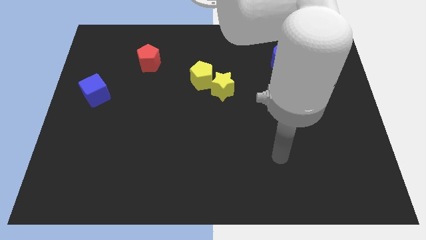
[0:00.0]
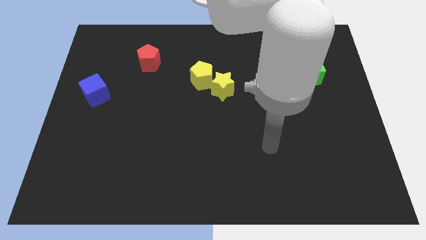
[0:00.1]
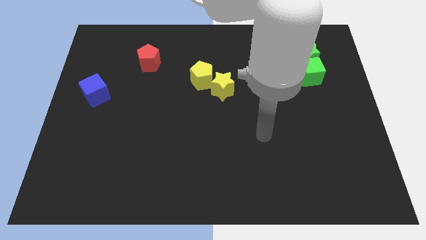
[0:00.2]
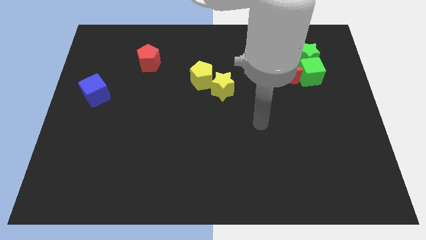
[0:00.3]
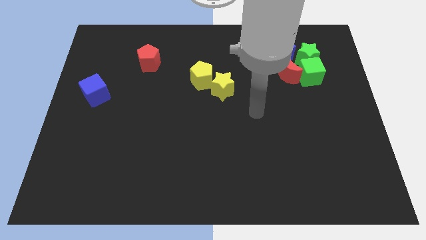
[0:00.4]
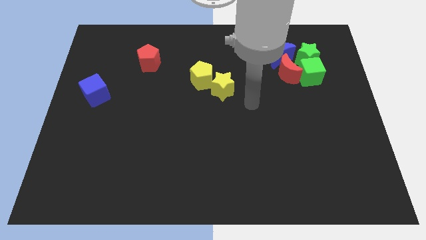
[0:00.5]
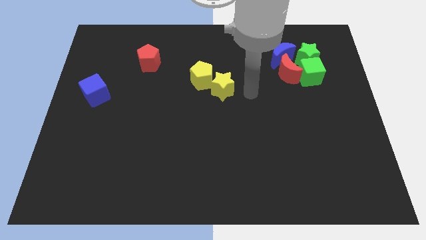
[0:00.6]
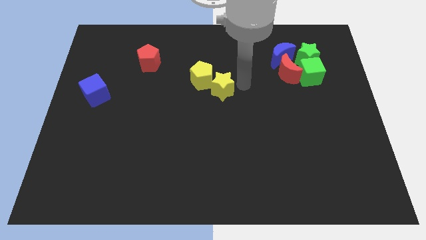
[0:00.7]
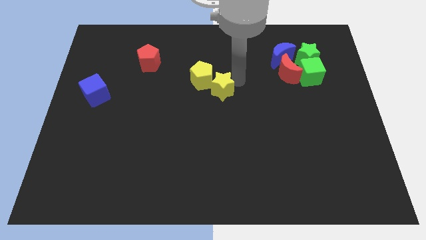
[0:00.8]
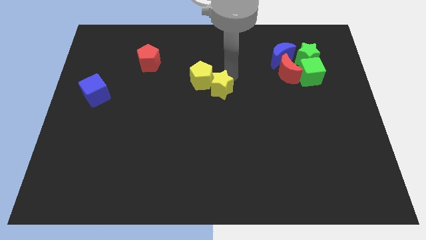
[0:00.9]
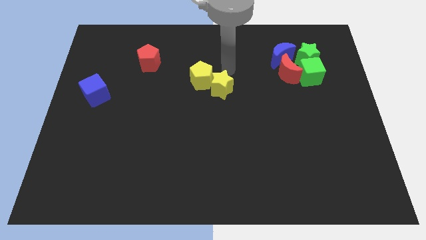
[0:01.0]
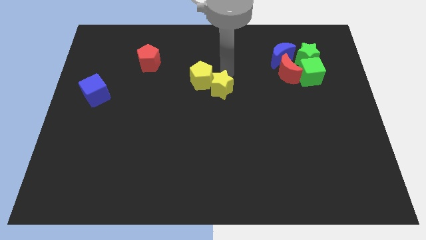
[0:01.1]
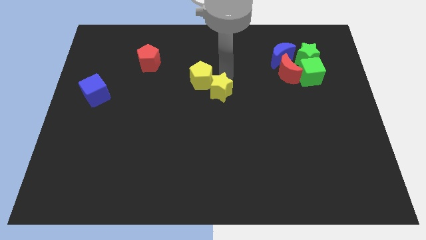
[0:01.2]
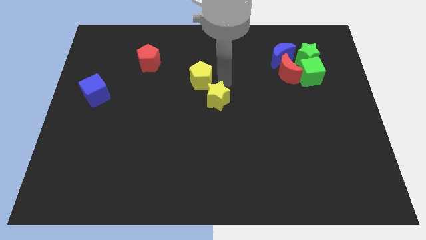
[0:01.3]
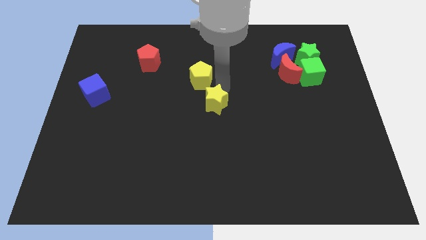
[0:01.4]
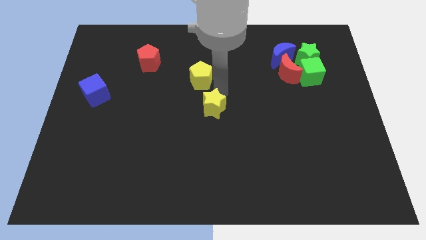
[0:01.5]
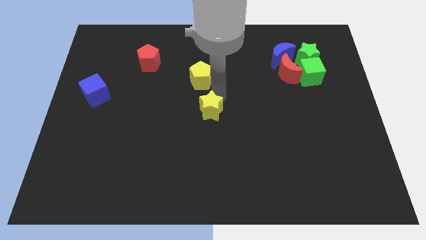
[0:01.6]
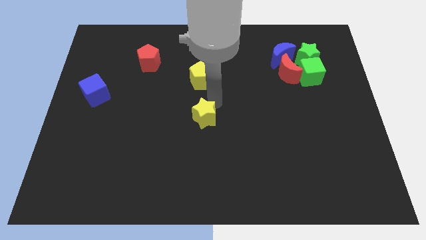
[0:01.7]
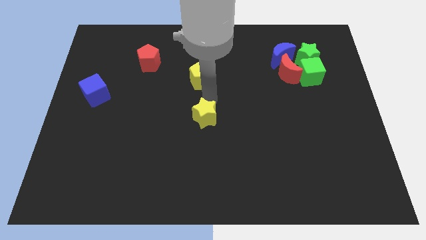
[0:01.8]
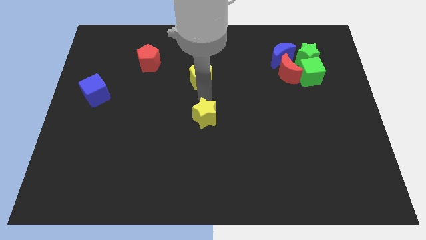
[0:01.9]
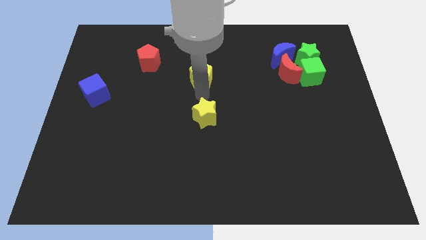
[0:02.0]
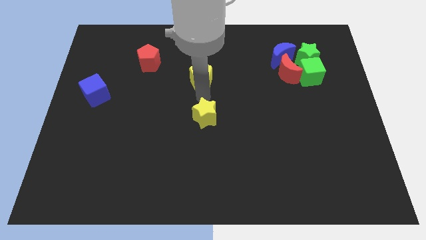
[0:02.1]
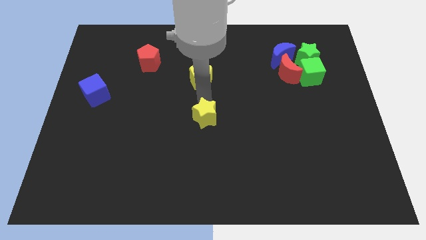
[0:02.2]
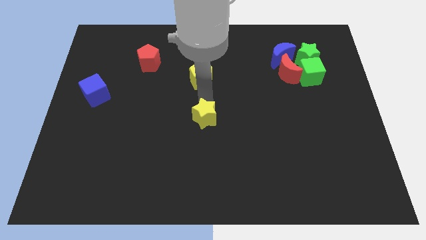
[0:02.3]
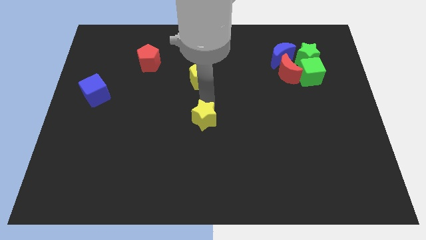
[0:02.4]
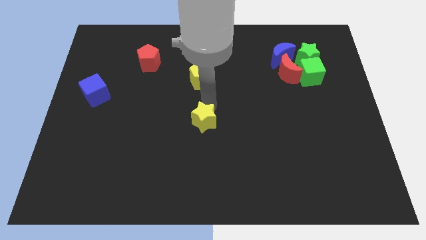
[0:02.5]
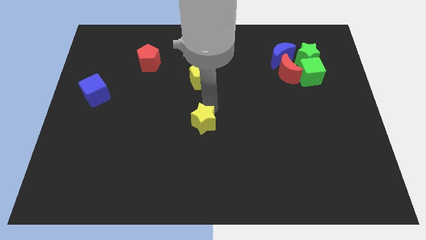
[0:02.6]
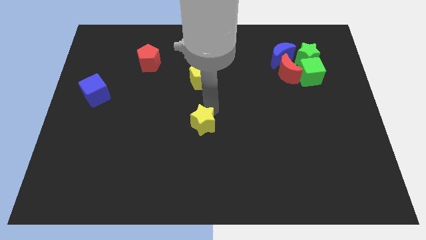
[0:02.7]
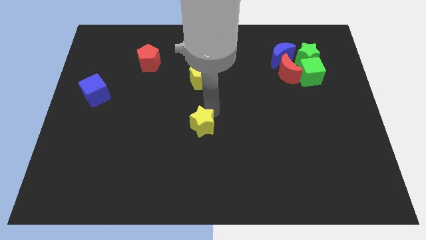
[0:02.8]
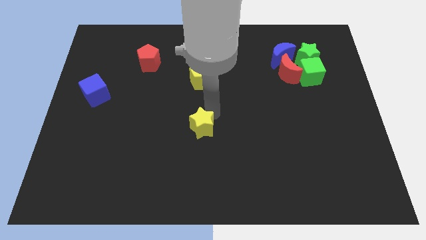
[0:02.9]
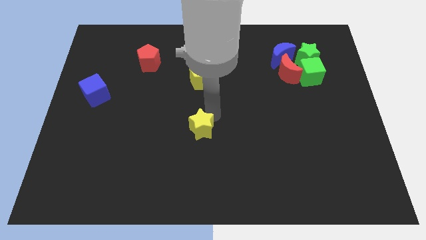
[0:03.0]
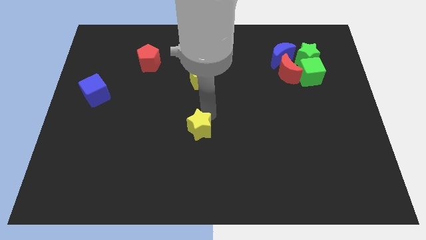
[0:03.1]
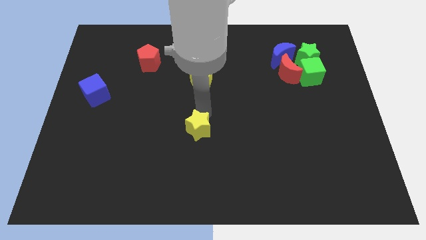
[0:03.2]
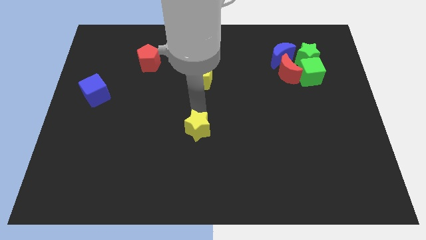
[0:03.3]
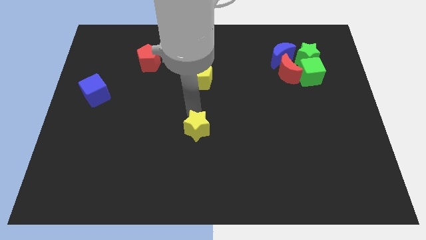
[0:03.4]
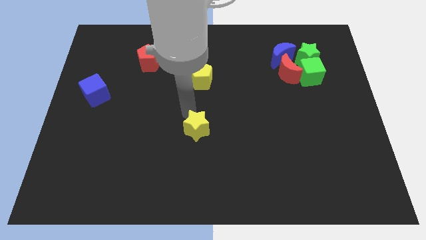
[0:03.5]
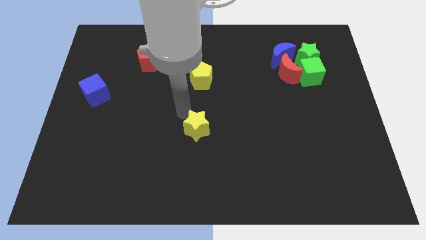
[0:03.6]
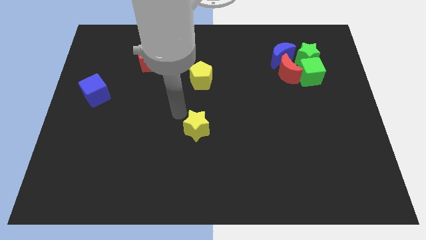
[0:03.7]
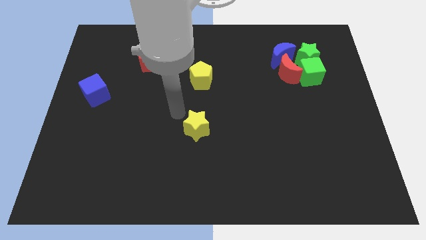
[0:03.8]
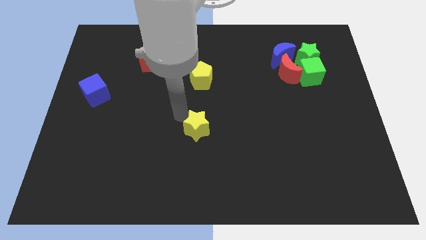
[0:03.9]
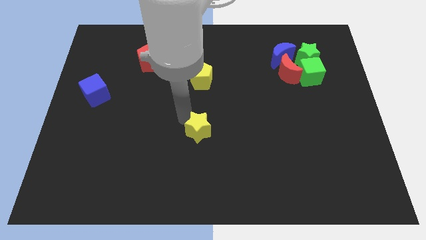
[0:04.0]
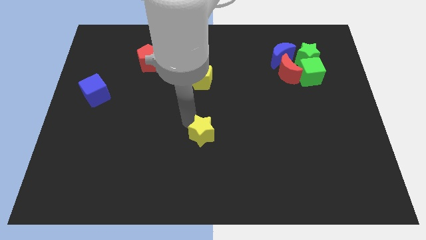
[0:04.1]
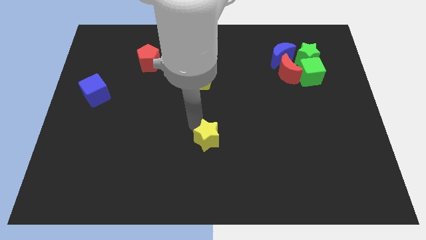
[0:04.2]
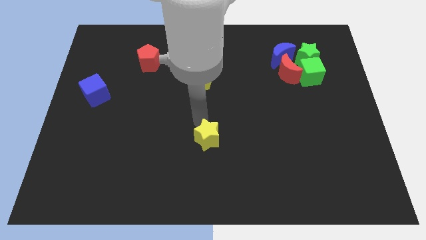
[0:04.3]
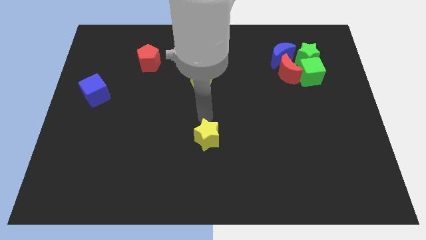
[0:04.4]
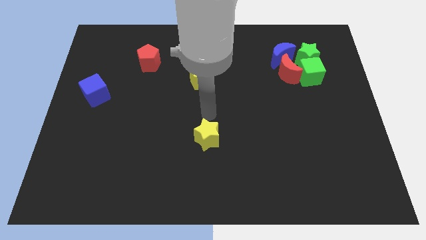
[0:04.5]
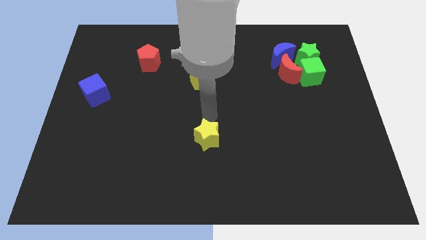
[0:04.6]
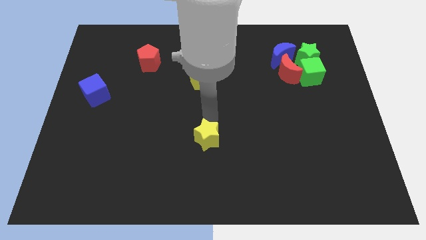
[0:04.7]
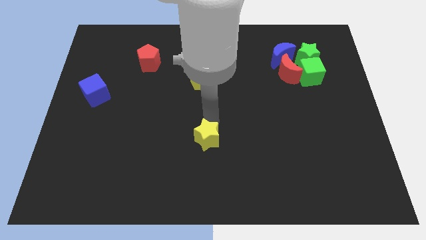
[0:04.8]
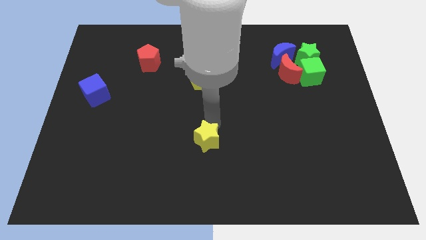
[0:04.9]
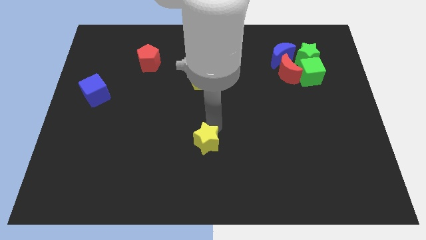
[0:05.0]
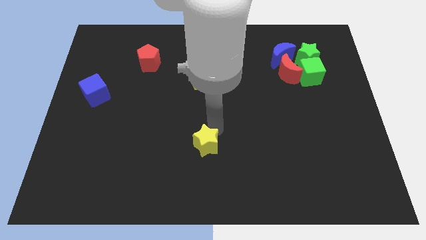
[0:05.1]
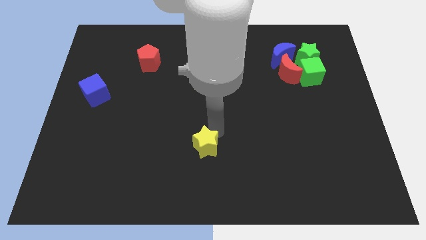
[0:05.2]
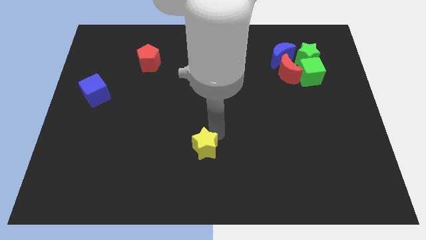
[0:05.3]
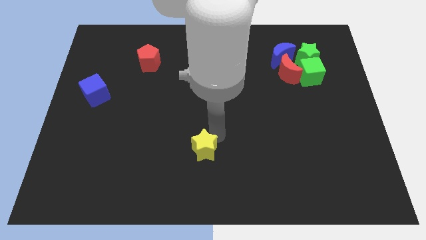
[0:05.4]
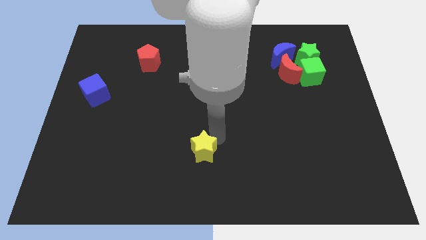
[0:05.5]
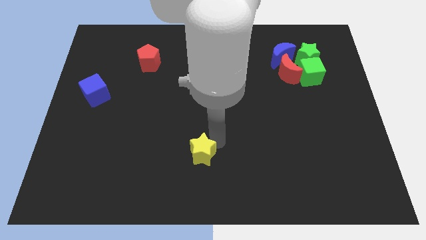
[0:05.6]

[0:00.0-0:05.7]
push the yellow star to the bottom side

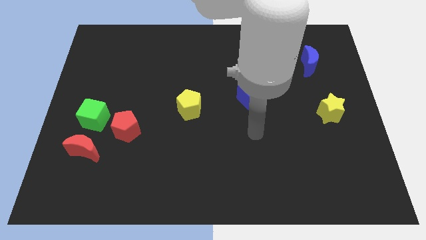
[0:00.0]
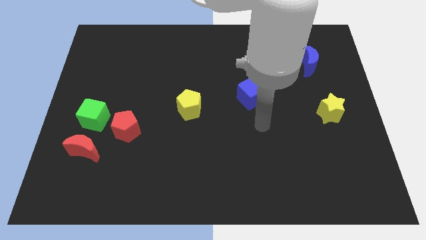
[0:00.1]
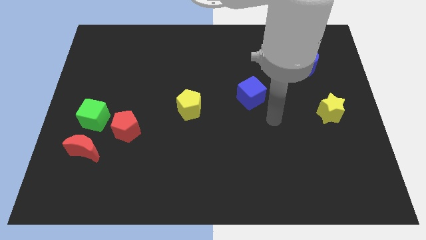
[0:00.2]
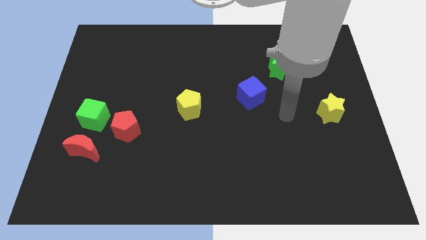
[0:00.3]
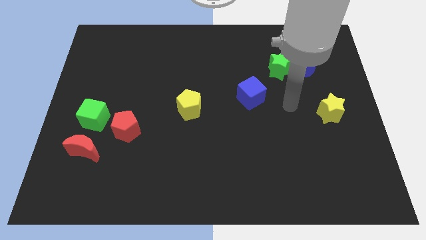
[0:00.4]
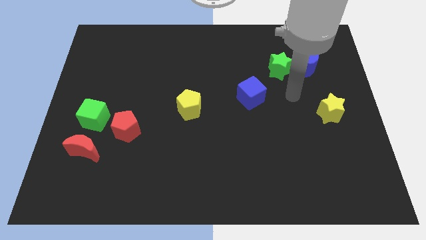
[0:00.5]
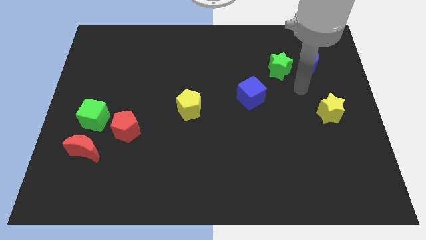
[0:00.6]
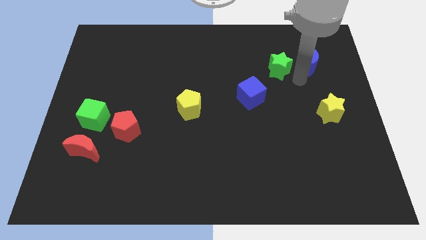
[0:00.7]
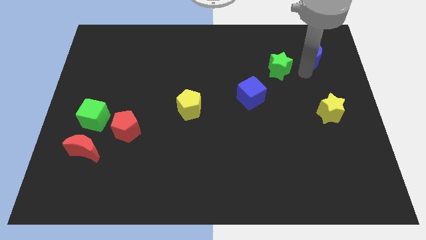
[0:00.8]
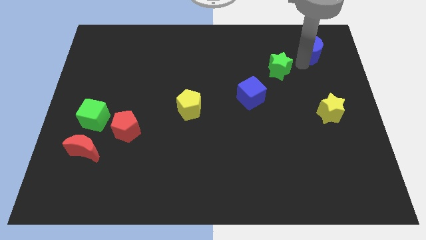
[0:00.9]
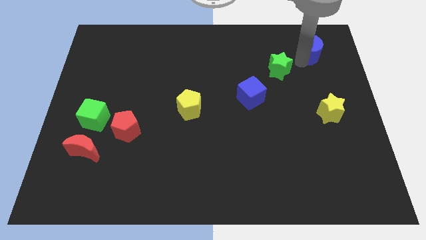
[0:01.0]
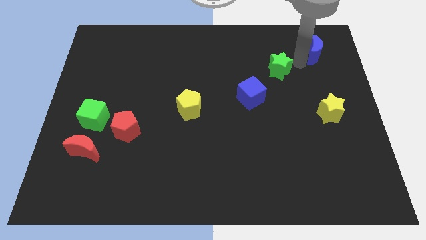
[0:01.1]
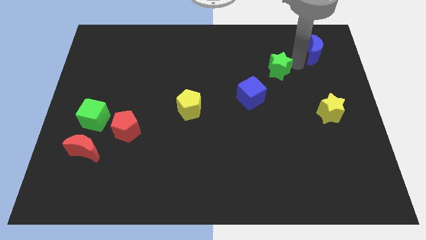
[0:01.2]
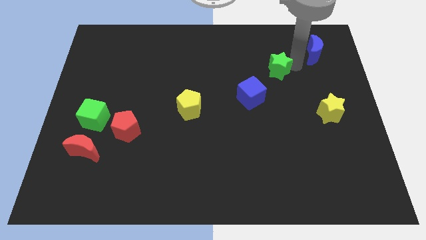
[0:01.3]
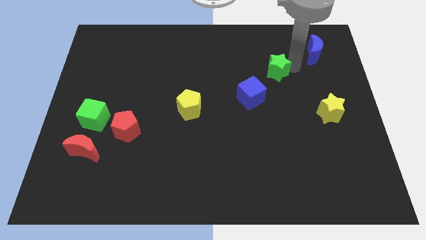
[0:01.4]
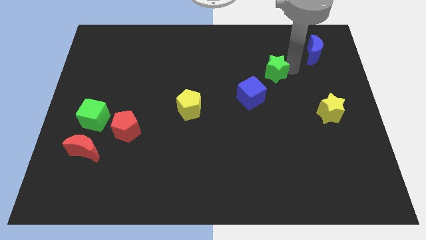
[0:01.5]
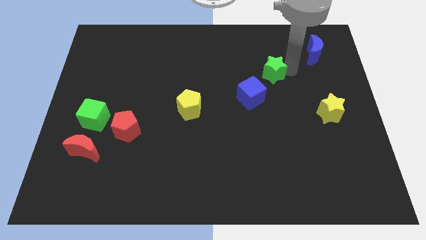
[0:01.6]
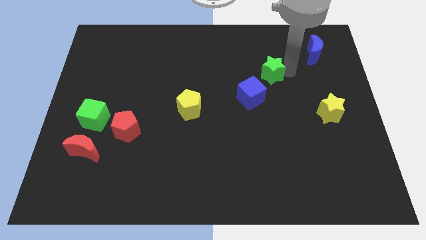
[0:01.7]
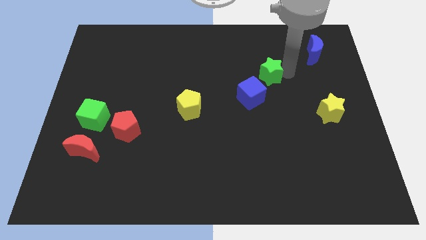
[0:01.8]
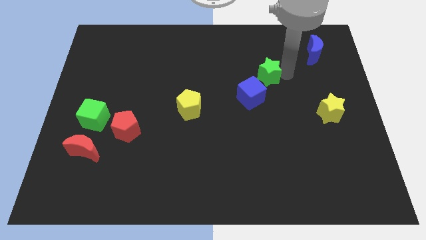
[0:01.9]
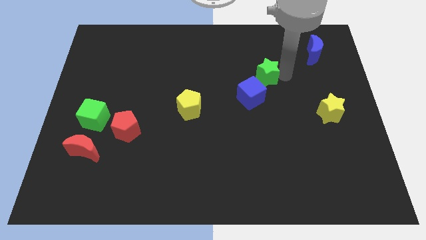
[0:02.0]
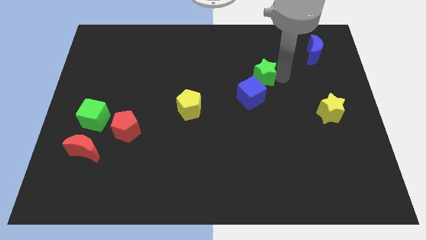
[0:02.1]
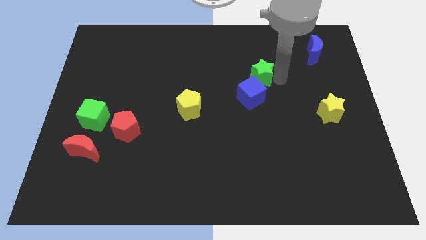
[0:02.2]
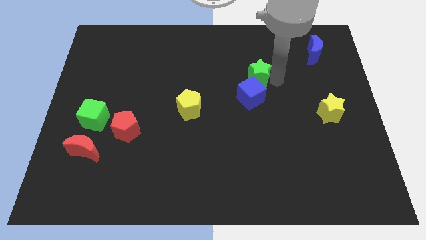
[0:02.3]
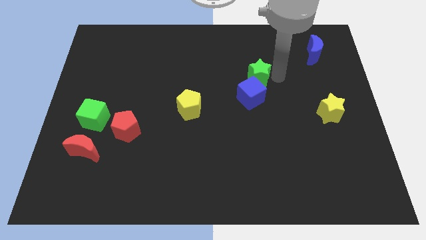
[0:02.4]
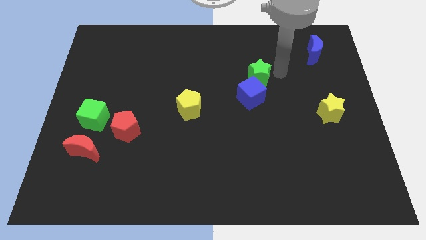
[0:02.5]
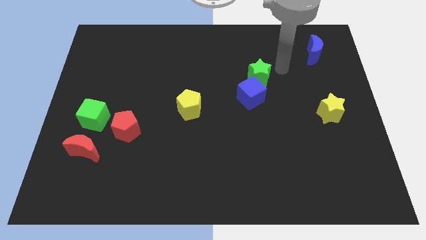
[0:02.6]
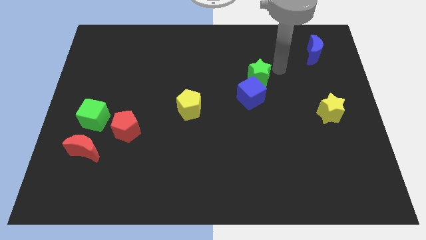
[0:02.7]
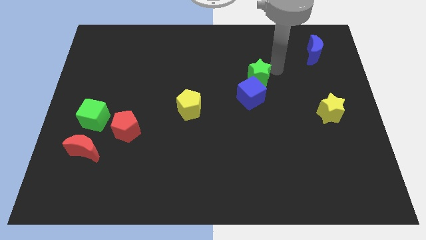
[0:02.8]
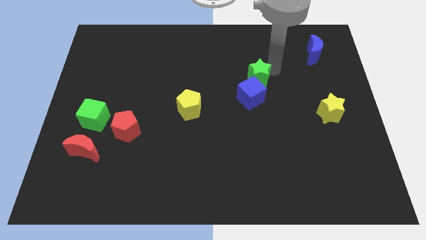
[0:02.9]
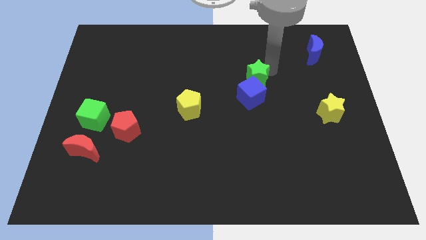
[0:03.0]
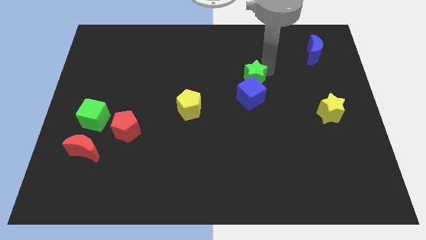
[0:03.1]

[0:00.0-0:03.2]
move the green star to the center of the board
